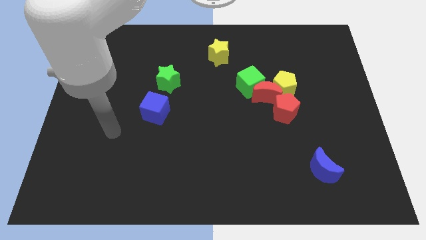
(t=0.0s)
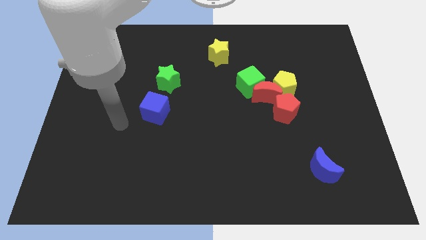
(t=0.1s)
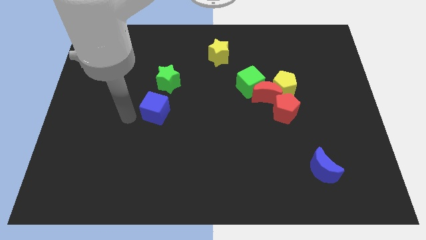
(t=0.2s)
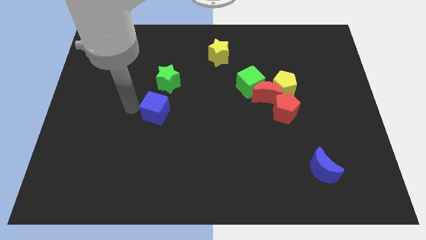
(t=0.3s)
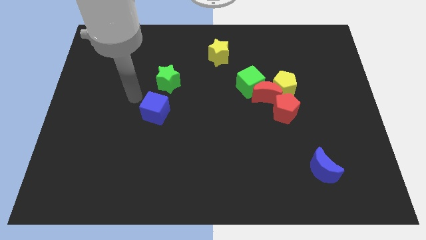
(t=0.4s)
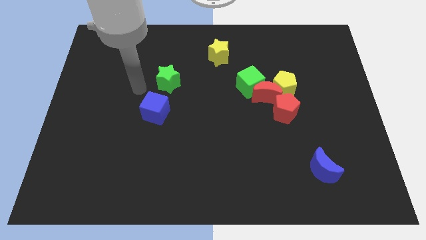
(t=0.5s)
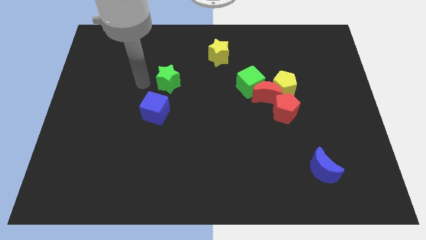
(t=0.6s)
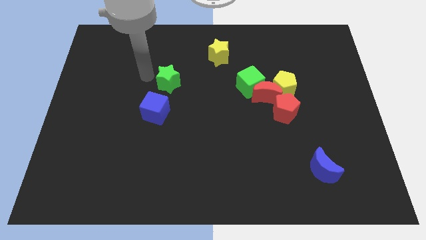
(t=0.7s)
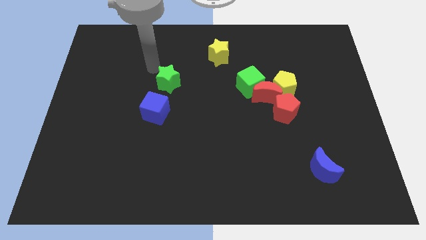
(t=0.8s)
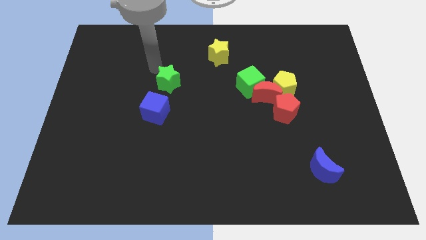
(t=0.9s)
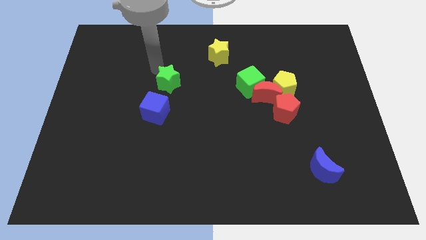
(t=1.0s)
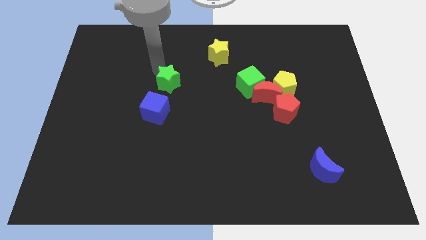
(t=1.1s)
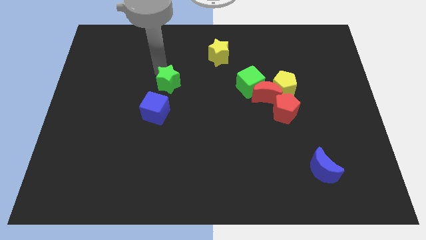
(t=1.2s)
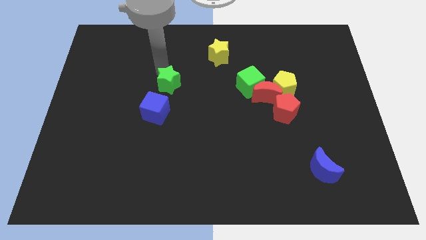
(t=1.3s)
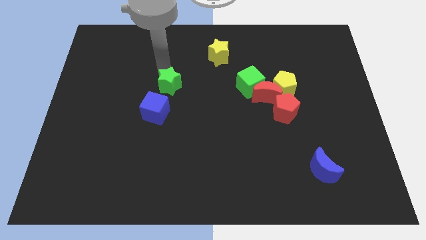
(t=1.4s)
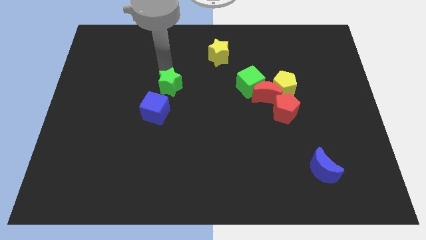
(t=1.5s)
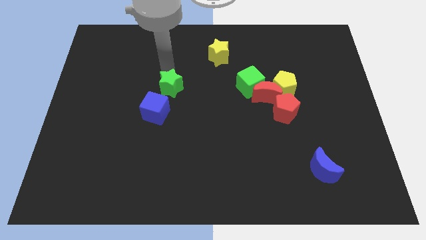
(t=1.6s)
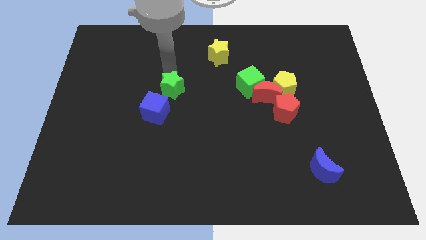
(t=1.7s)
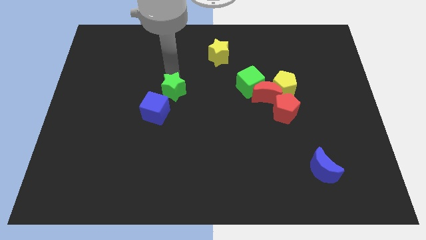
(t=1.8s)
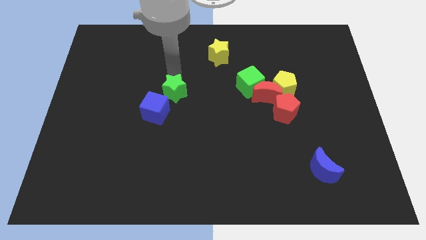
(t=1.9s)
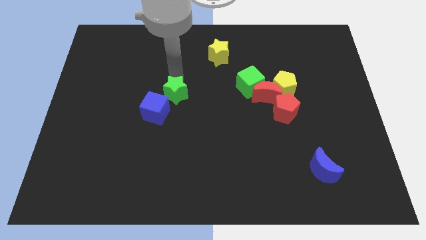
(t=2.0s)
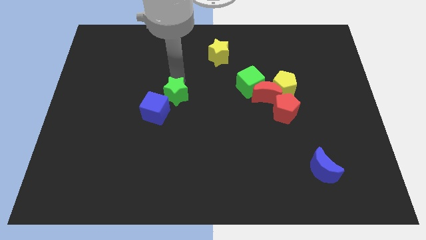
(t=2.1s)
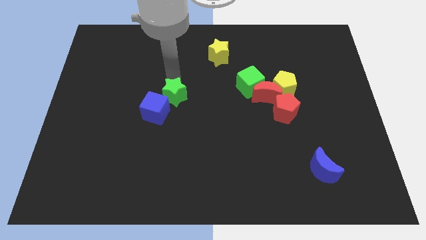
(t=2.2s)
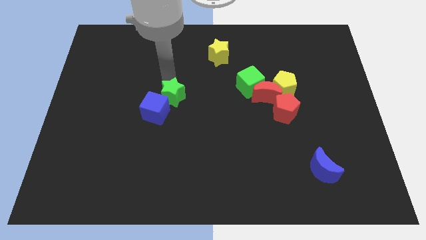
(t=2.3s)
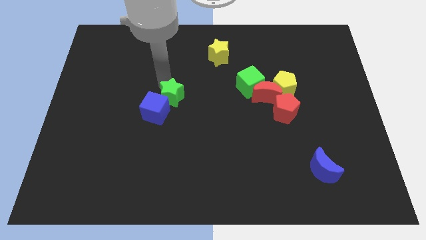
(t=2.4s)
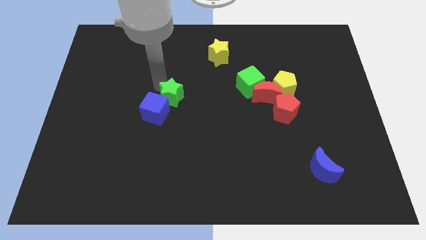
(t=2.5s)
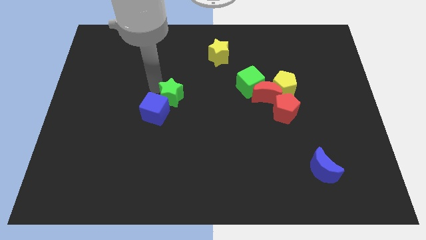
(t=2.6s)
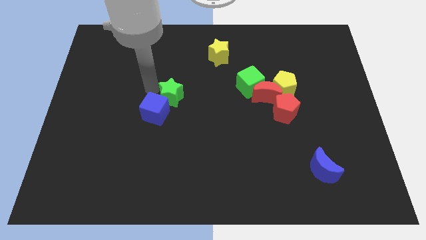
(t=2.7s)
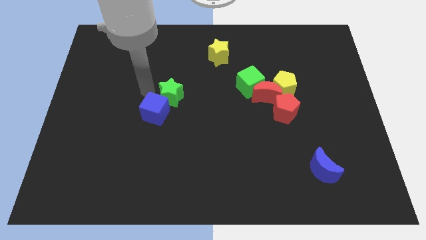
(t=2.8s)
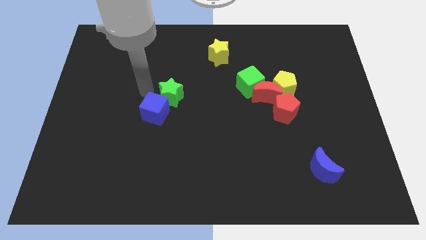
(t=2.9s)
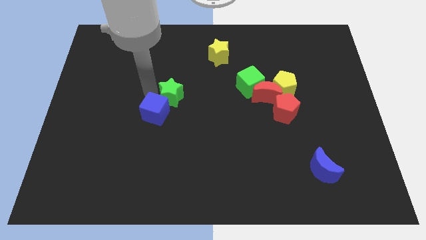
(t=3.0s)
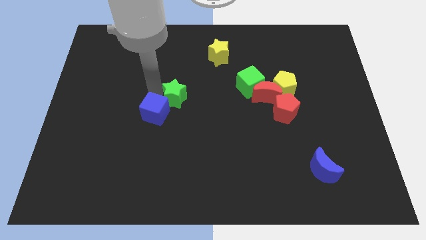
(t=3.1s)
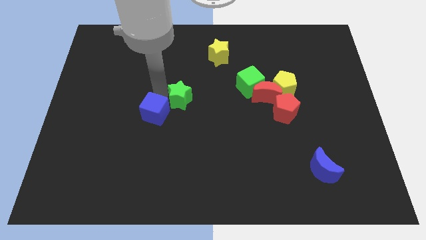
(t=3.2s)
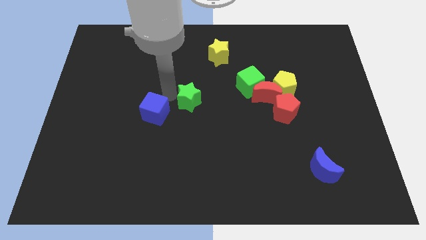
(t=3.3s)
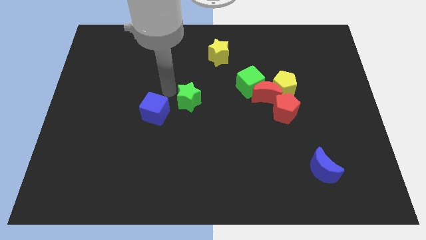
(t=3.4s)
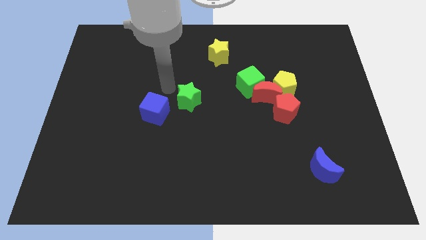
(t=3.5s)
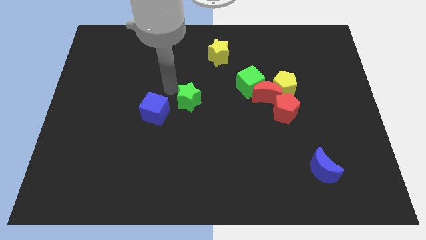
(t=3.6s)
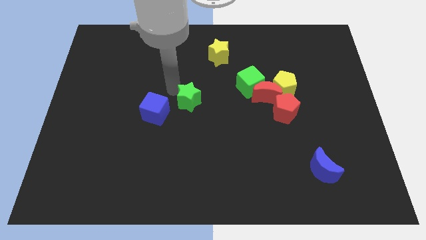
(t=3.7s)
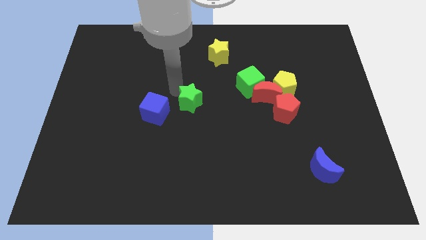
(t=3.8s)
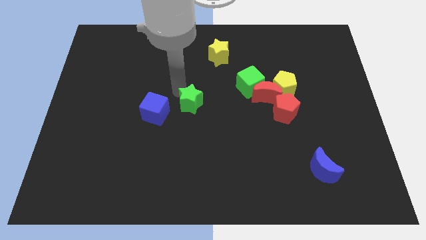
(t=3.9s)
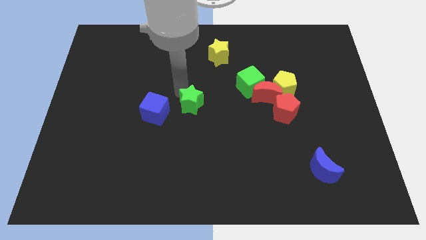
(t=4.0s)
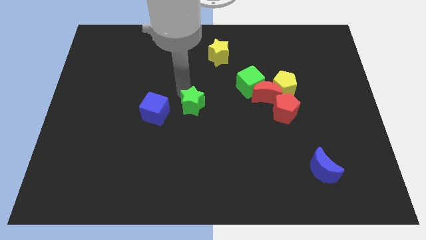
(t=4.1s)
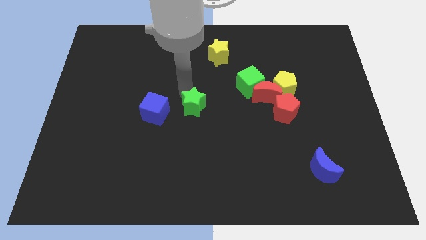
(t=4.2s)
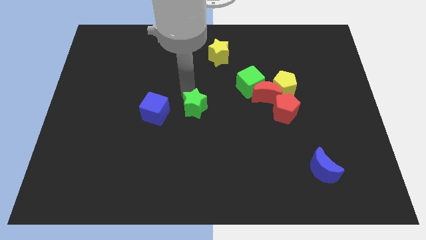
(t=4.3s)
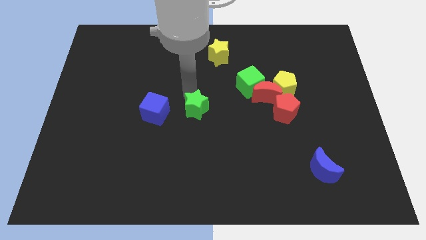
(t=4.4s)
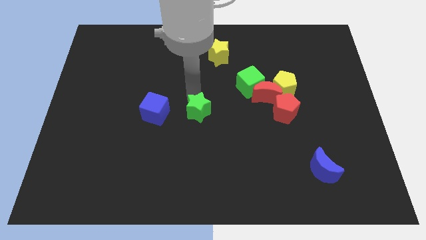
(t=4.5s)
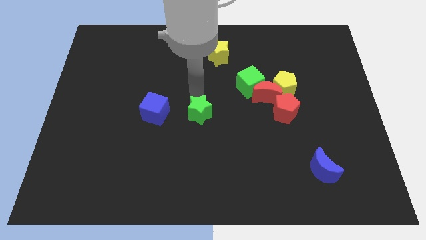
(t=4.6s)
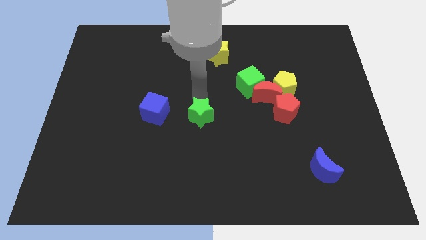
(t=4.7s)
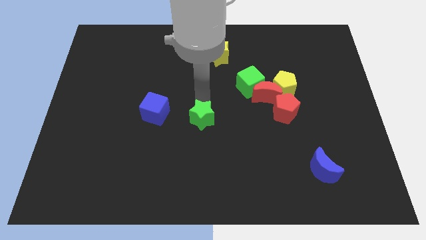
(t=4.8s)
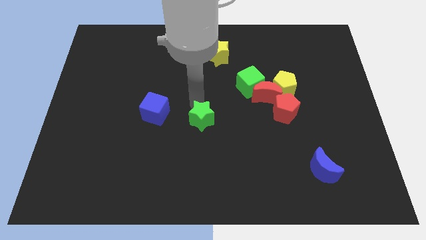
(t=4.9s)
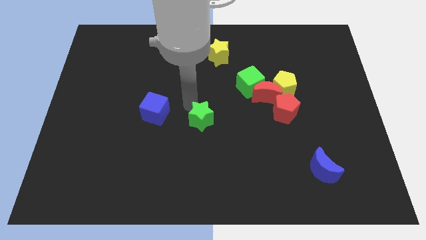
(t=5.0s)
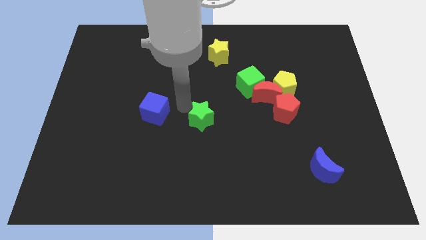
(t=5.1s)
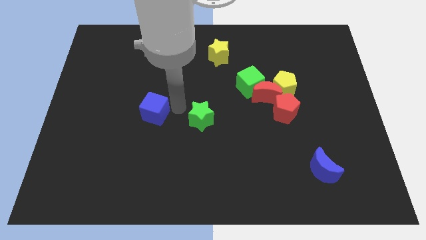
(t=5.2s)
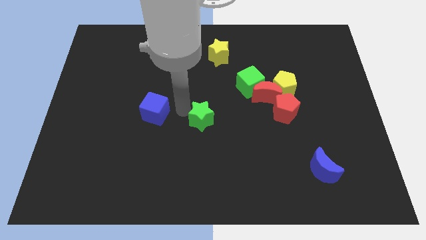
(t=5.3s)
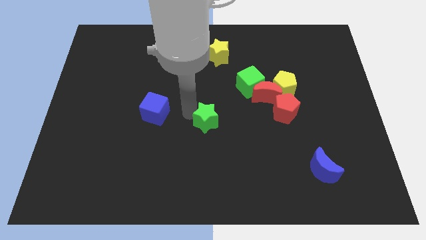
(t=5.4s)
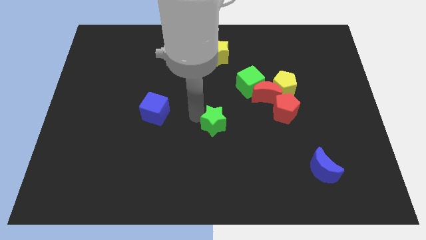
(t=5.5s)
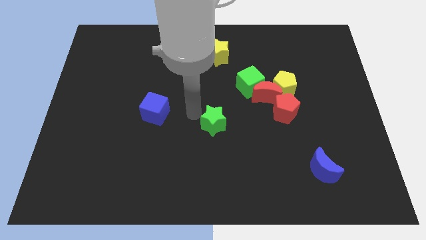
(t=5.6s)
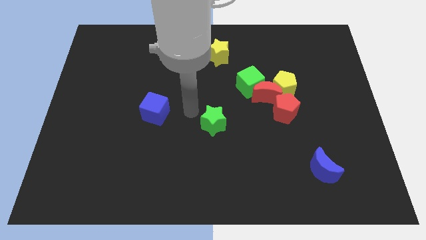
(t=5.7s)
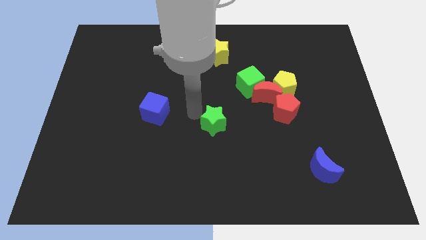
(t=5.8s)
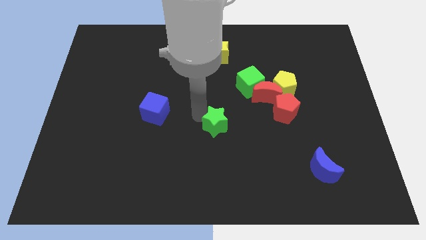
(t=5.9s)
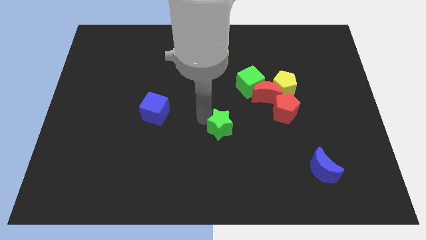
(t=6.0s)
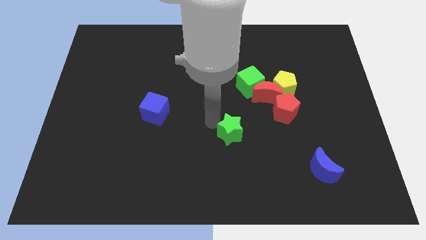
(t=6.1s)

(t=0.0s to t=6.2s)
push the green star downwards and right

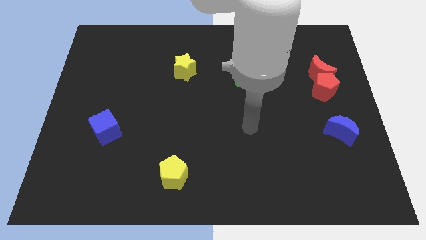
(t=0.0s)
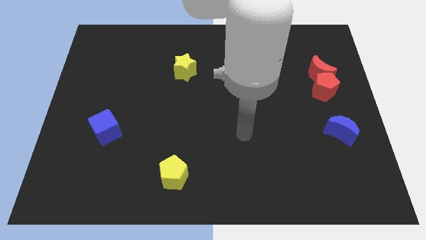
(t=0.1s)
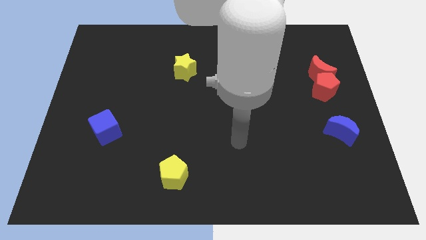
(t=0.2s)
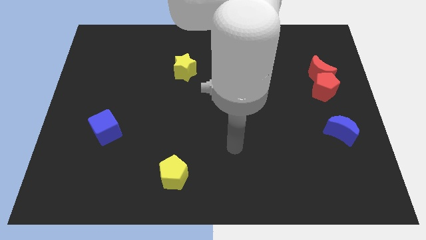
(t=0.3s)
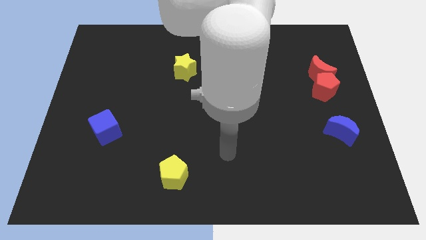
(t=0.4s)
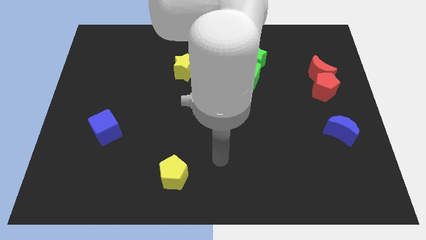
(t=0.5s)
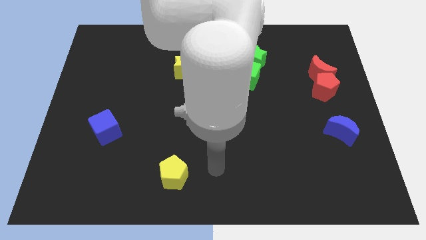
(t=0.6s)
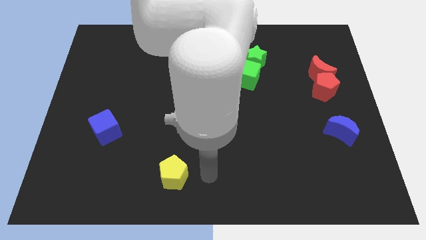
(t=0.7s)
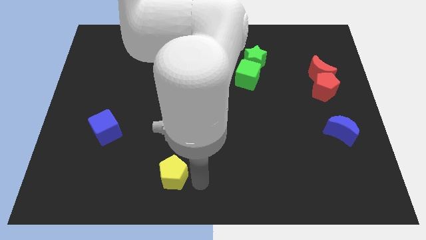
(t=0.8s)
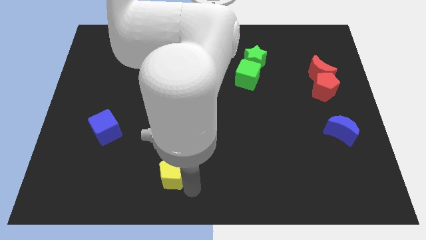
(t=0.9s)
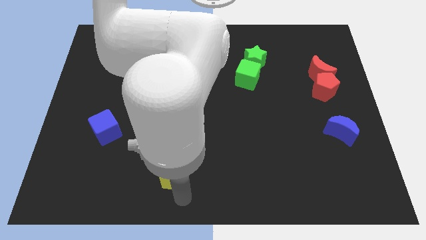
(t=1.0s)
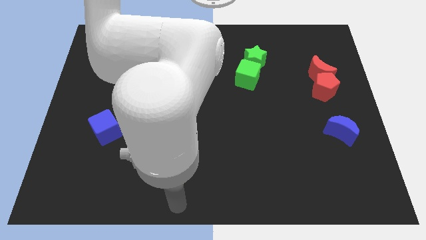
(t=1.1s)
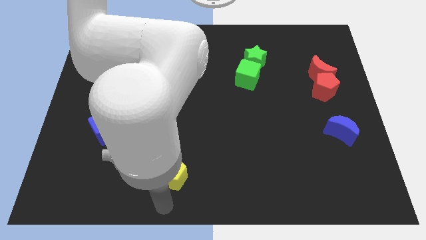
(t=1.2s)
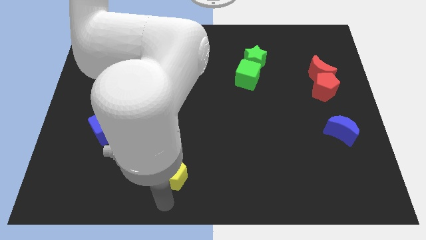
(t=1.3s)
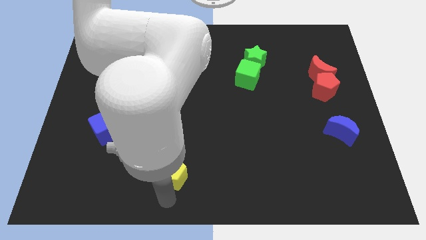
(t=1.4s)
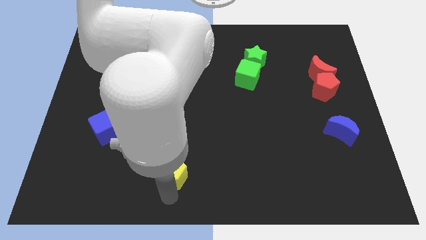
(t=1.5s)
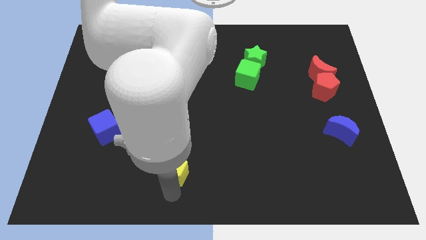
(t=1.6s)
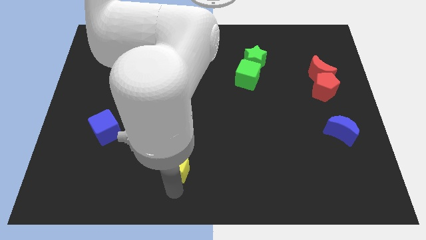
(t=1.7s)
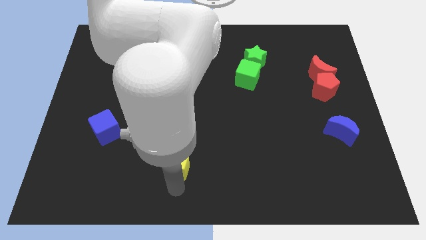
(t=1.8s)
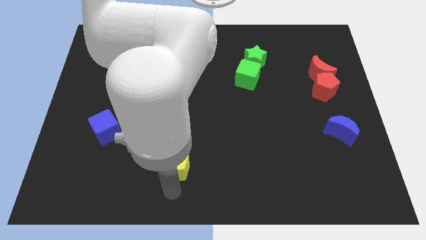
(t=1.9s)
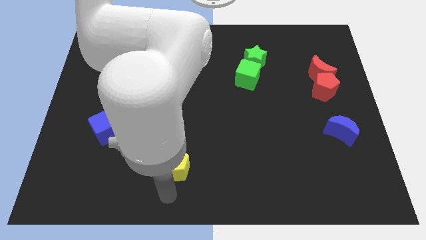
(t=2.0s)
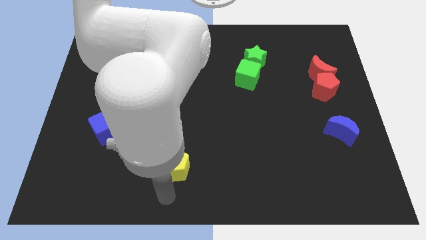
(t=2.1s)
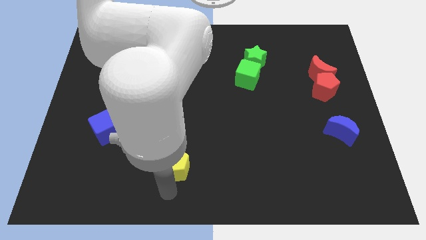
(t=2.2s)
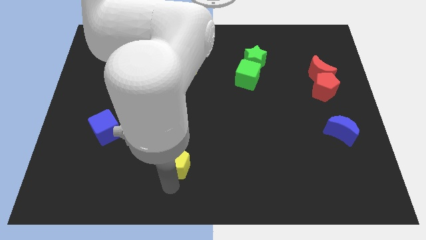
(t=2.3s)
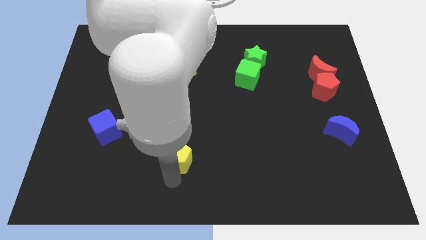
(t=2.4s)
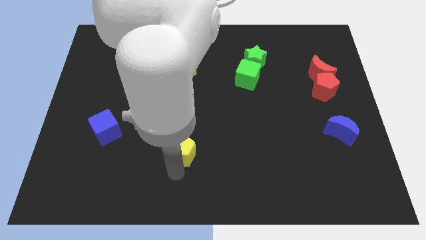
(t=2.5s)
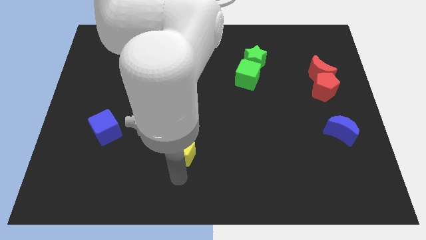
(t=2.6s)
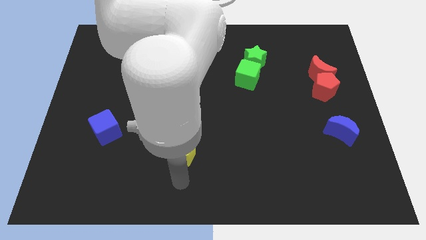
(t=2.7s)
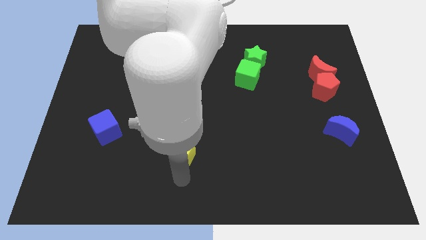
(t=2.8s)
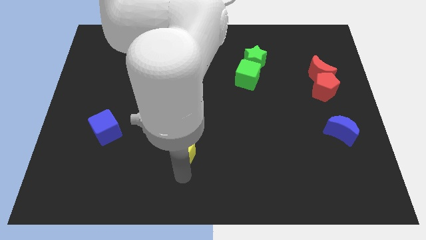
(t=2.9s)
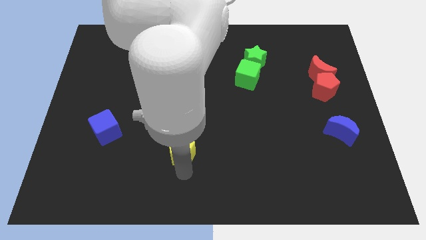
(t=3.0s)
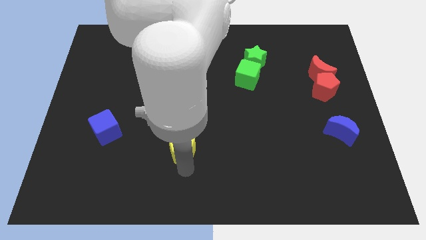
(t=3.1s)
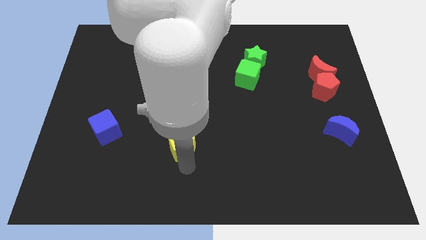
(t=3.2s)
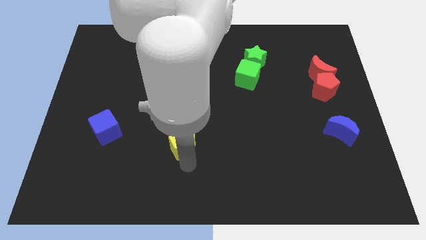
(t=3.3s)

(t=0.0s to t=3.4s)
move the yellow pentagon upwards a bit
